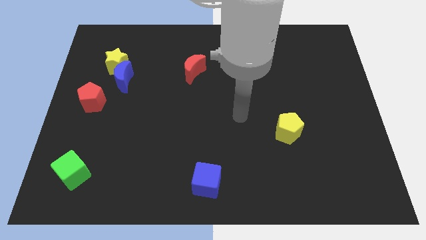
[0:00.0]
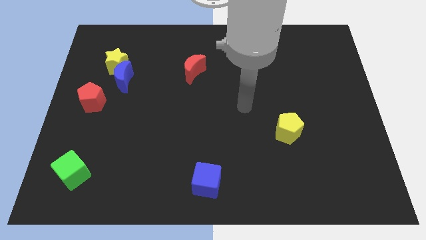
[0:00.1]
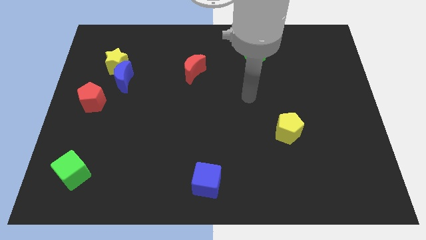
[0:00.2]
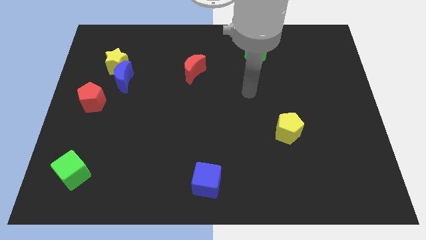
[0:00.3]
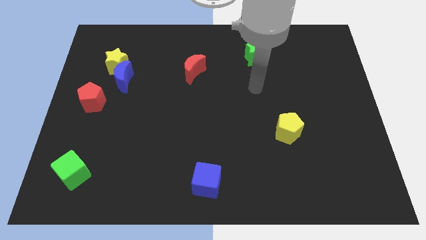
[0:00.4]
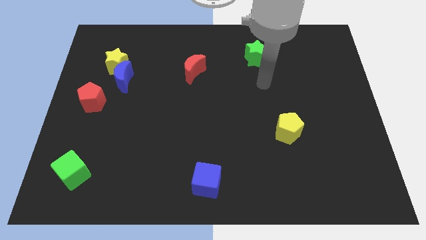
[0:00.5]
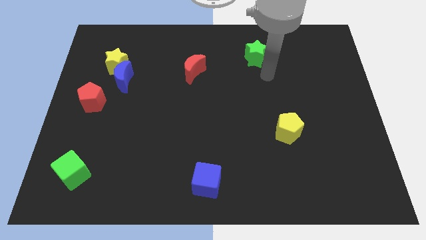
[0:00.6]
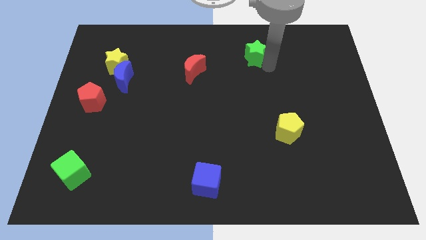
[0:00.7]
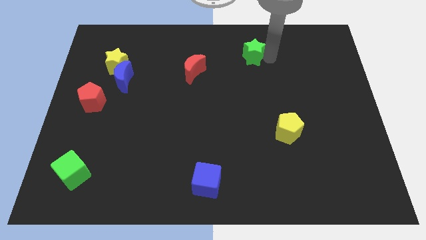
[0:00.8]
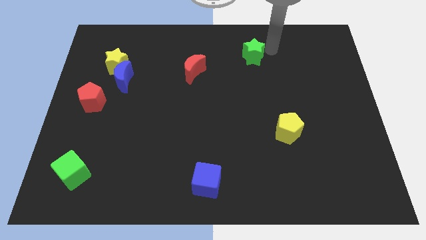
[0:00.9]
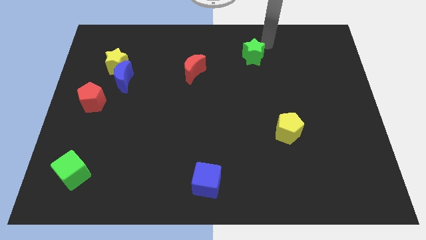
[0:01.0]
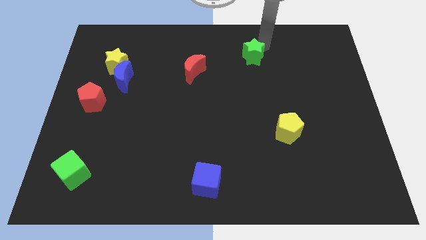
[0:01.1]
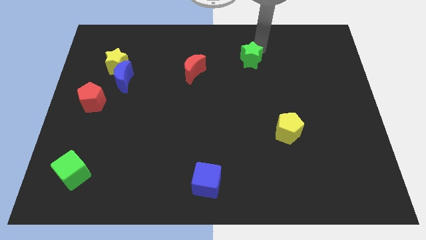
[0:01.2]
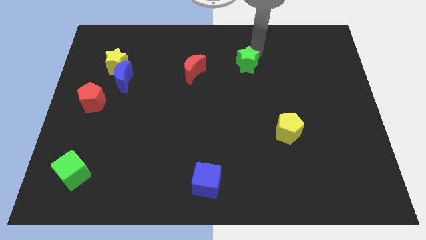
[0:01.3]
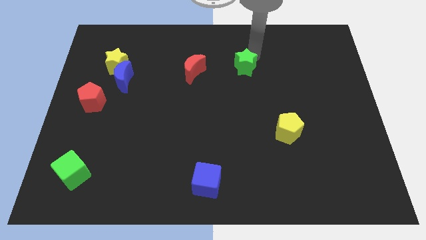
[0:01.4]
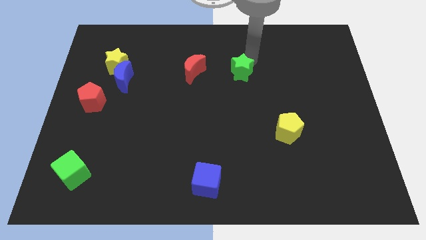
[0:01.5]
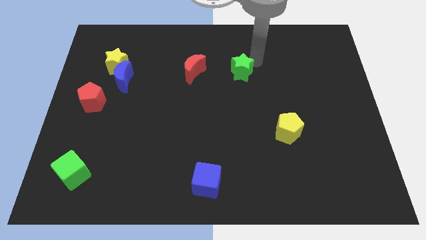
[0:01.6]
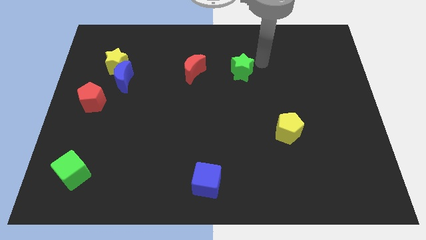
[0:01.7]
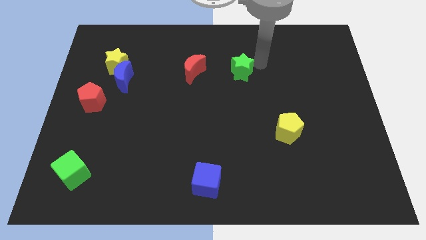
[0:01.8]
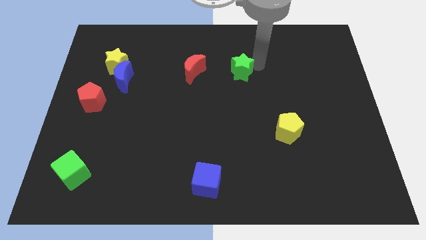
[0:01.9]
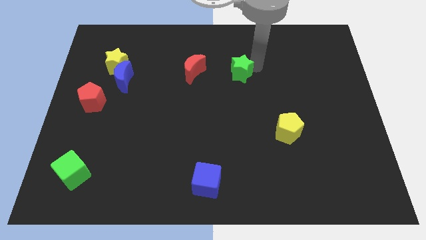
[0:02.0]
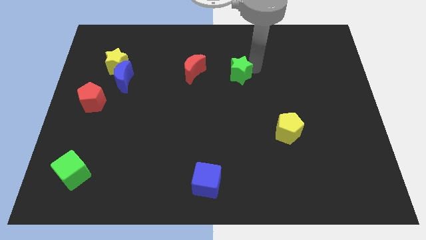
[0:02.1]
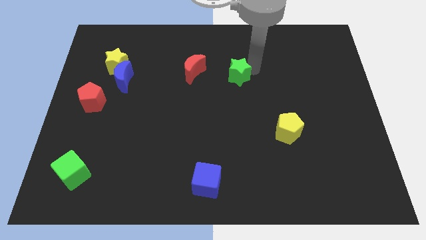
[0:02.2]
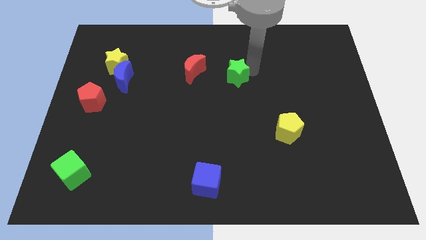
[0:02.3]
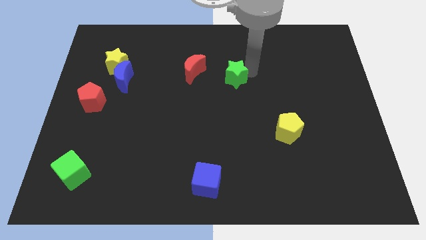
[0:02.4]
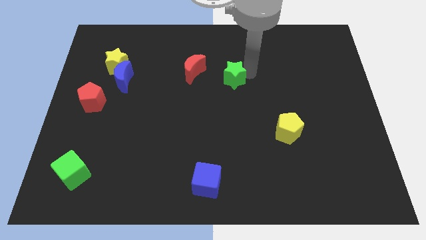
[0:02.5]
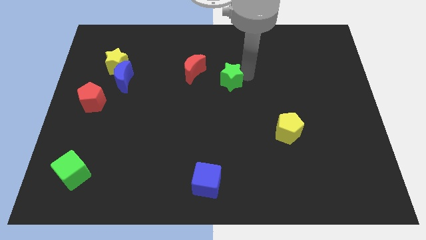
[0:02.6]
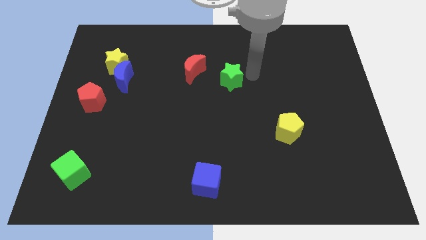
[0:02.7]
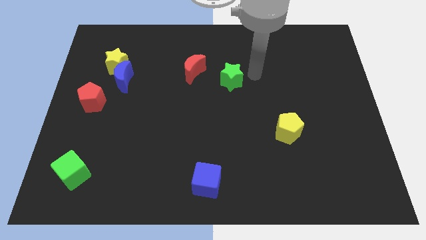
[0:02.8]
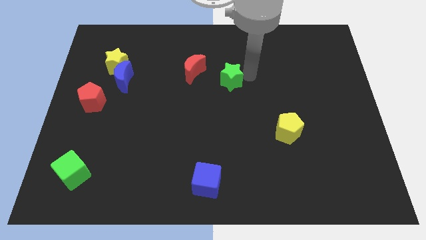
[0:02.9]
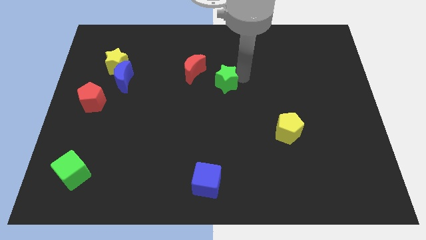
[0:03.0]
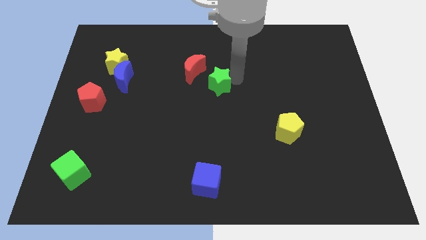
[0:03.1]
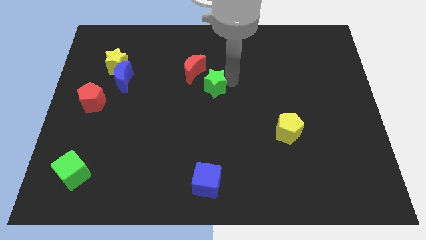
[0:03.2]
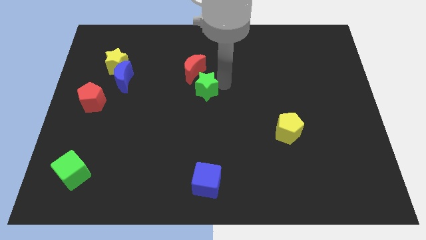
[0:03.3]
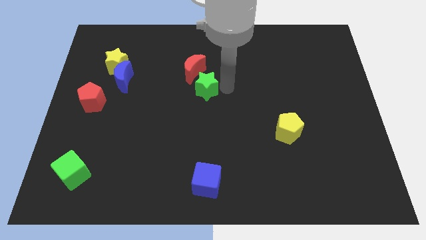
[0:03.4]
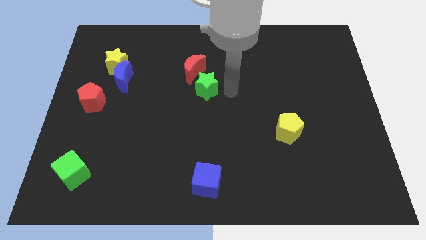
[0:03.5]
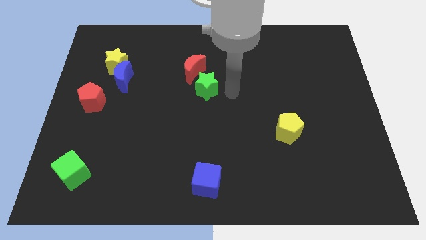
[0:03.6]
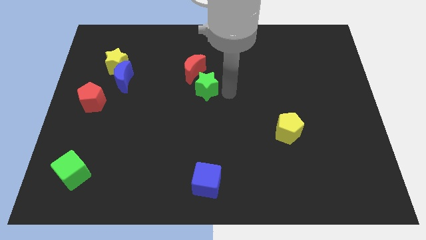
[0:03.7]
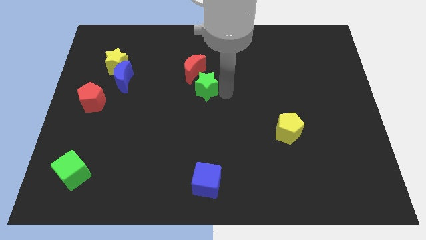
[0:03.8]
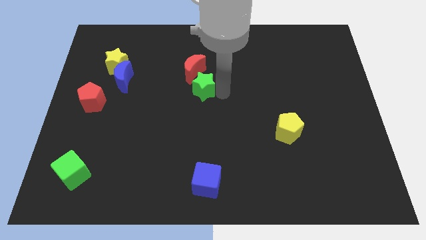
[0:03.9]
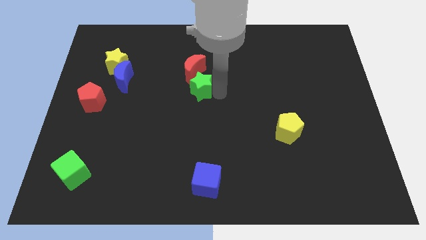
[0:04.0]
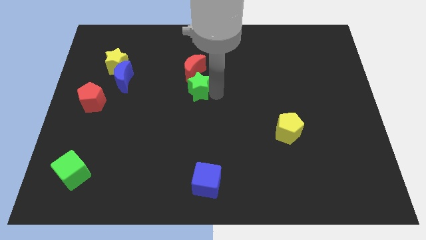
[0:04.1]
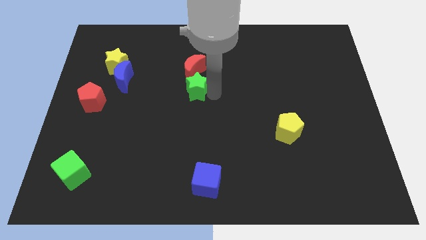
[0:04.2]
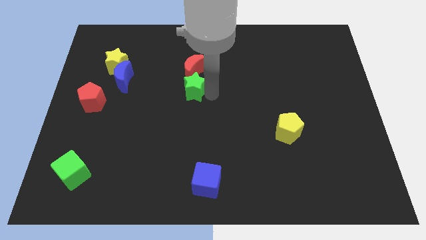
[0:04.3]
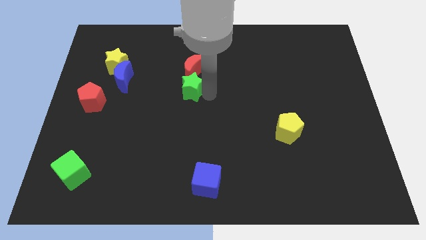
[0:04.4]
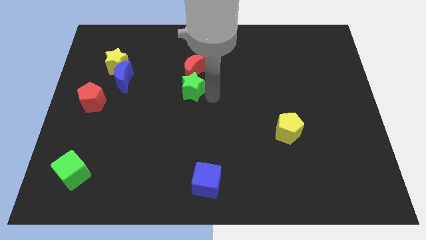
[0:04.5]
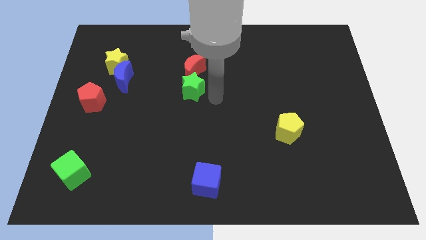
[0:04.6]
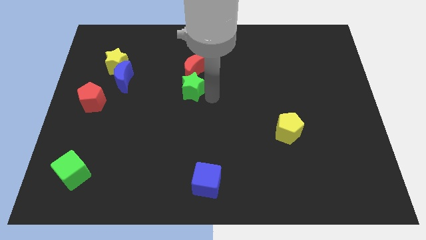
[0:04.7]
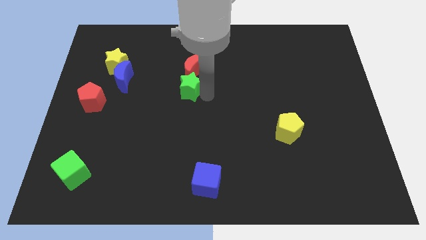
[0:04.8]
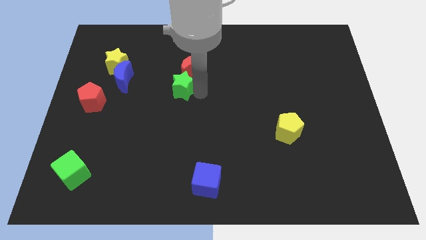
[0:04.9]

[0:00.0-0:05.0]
push the green star right of the blue moon

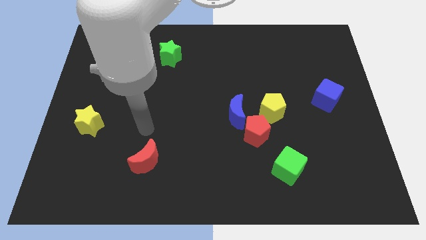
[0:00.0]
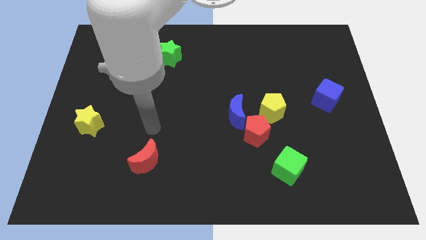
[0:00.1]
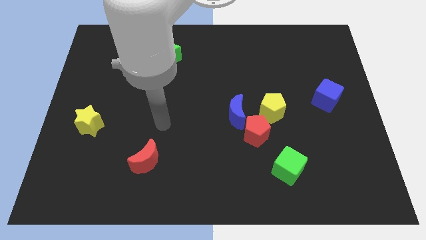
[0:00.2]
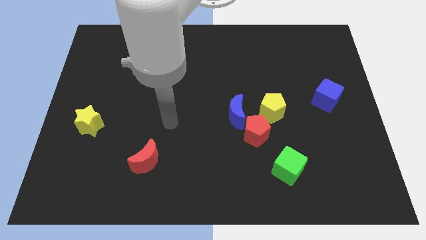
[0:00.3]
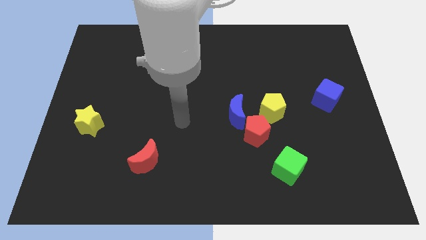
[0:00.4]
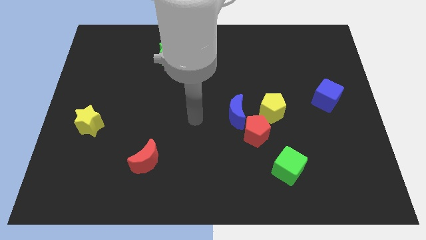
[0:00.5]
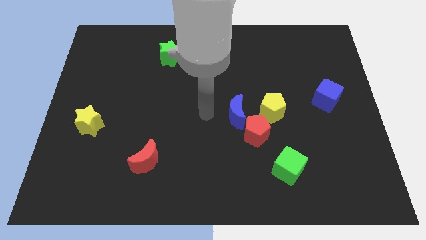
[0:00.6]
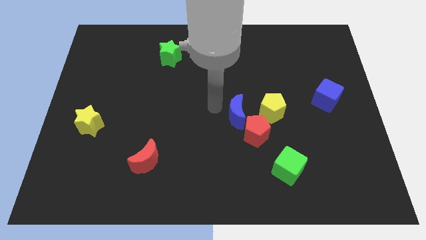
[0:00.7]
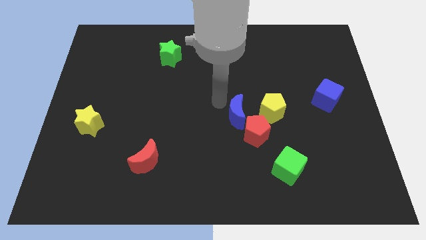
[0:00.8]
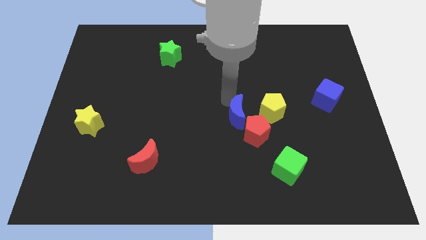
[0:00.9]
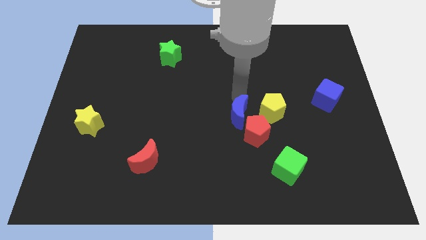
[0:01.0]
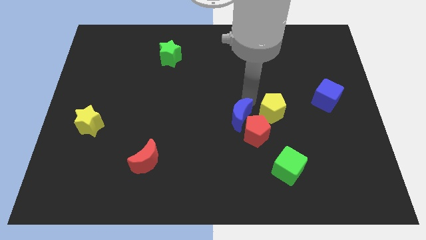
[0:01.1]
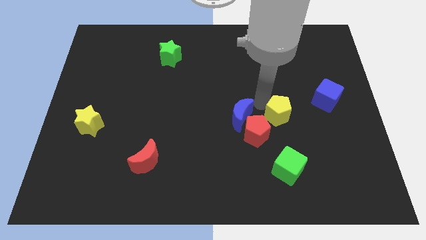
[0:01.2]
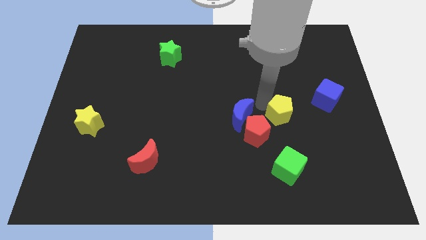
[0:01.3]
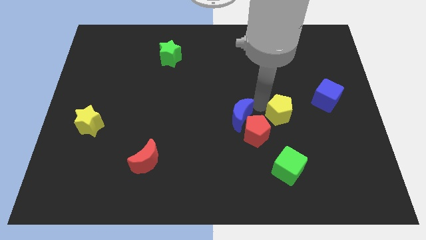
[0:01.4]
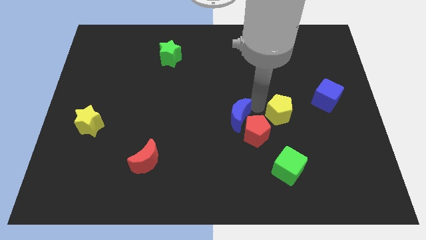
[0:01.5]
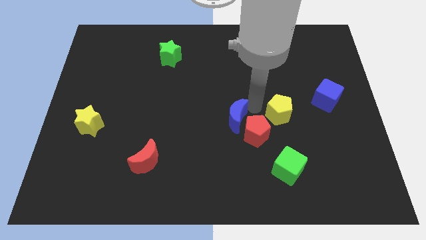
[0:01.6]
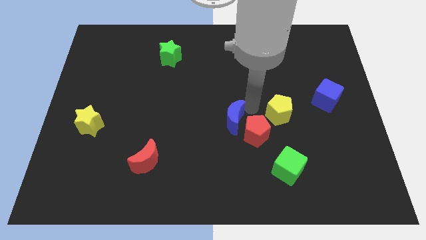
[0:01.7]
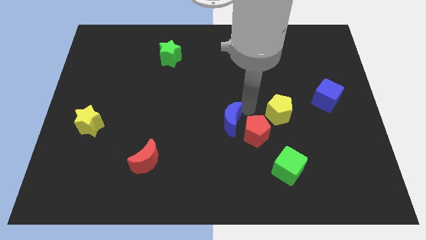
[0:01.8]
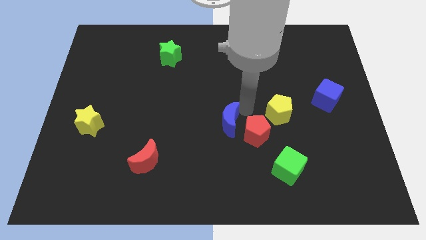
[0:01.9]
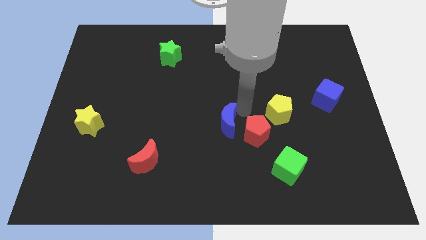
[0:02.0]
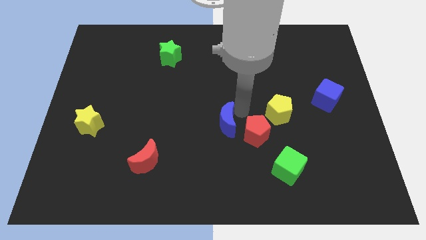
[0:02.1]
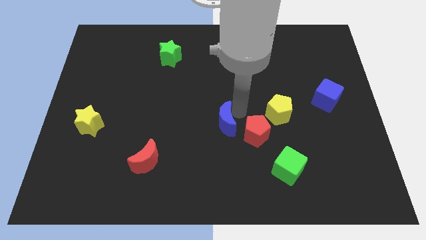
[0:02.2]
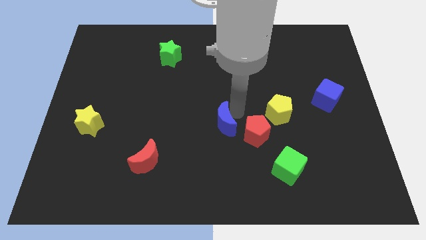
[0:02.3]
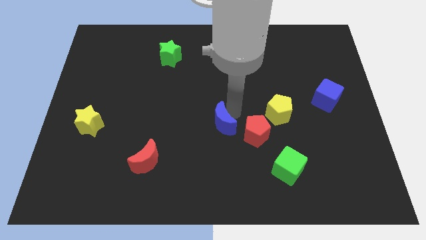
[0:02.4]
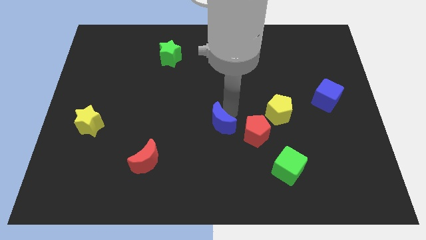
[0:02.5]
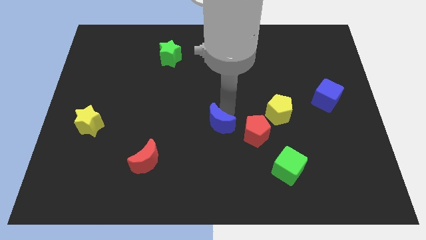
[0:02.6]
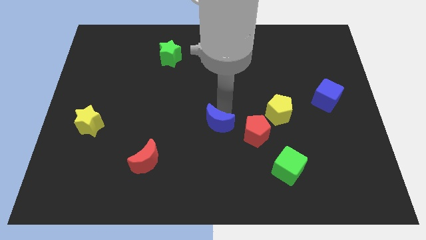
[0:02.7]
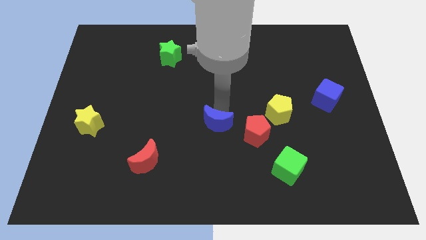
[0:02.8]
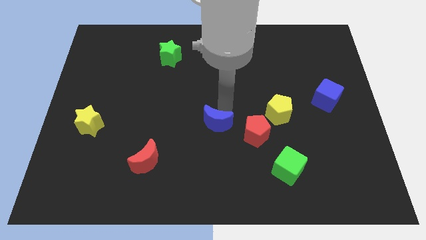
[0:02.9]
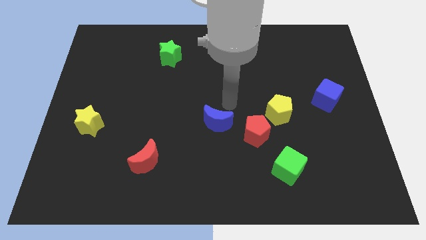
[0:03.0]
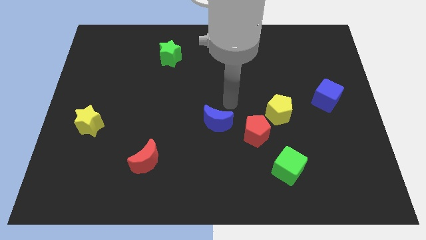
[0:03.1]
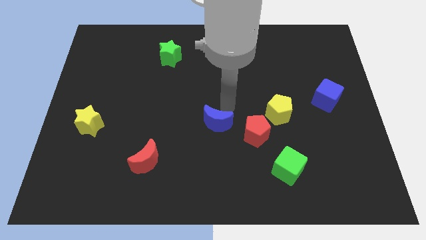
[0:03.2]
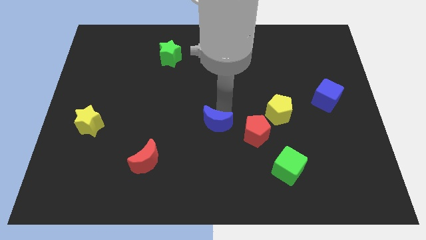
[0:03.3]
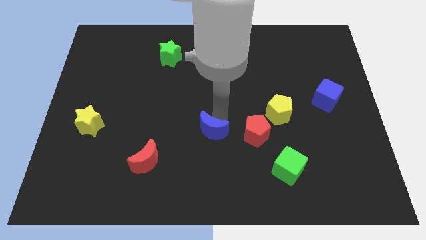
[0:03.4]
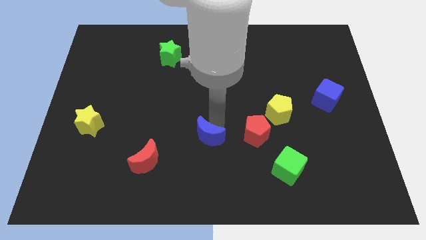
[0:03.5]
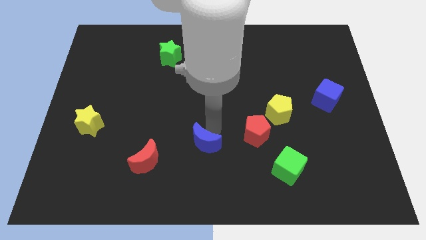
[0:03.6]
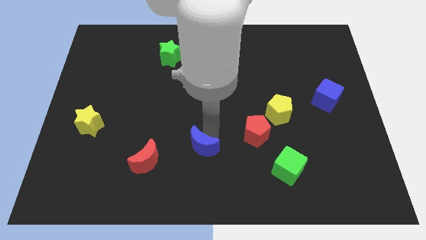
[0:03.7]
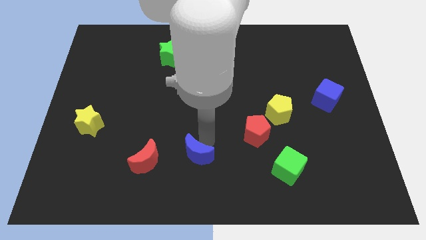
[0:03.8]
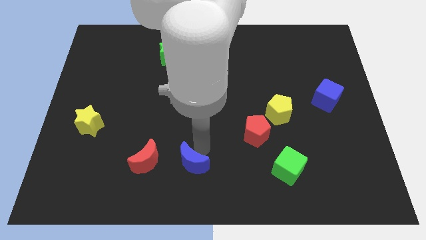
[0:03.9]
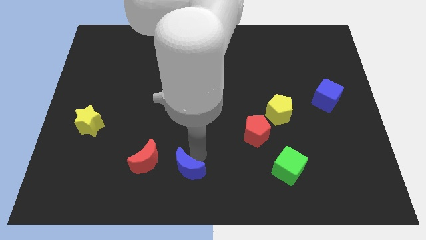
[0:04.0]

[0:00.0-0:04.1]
slide the blue moon diagonally down and to the right of the red moon
